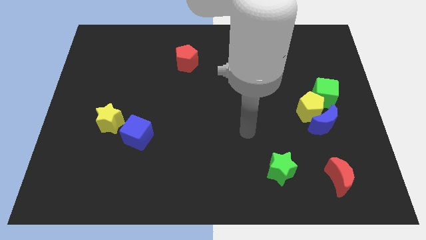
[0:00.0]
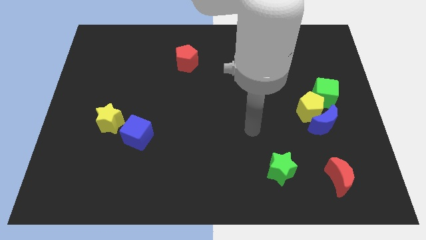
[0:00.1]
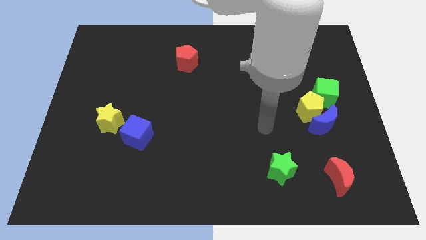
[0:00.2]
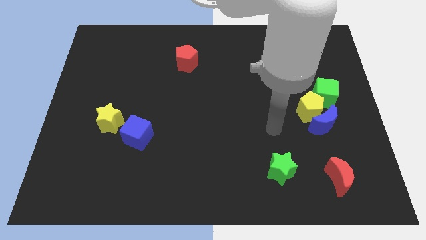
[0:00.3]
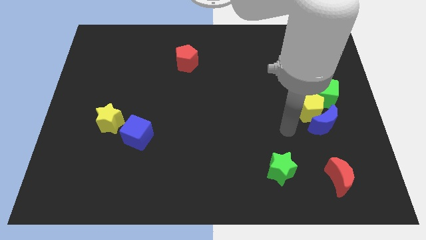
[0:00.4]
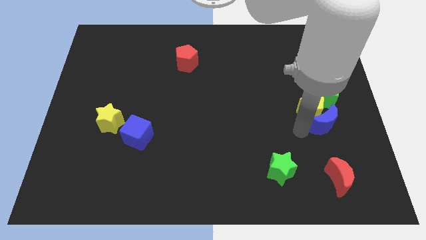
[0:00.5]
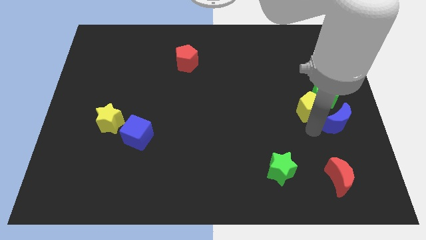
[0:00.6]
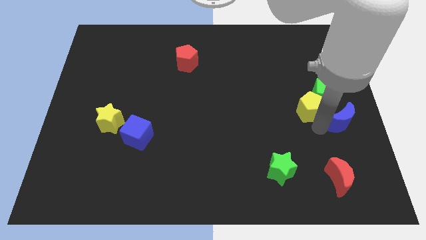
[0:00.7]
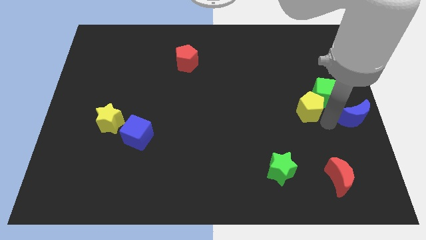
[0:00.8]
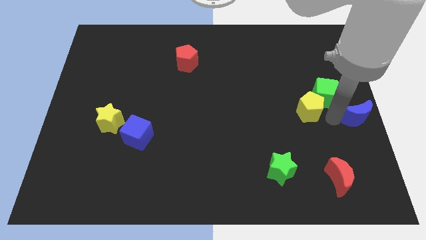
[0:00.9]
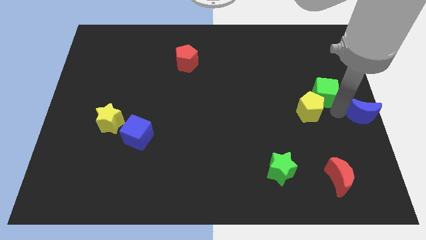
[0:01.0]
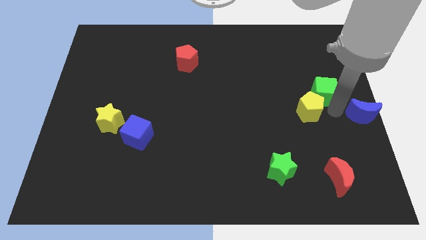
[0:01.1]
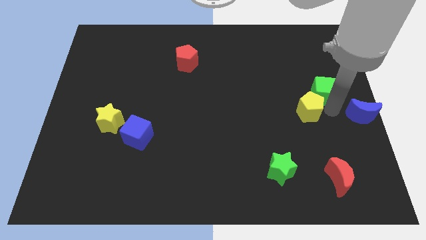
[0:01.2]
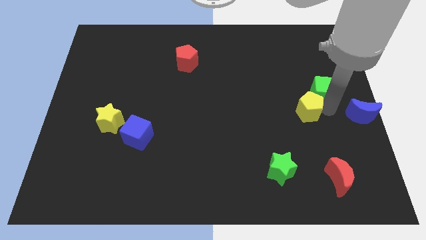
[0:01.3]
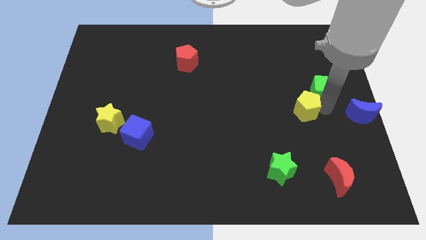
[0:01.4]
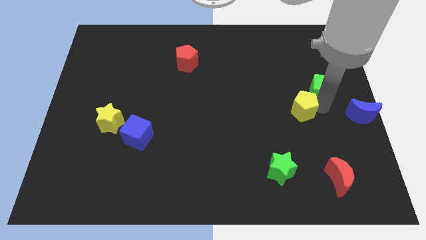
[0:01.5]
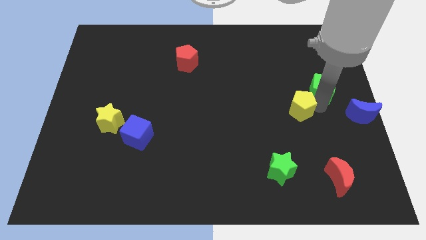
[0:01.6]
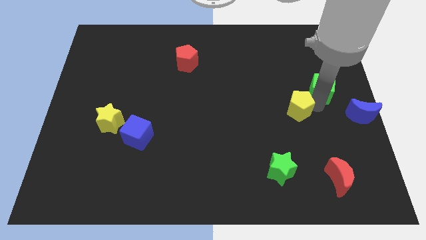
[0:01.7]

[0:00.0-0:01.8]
move the yellow pentagon away from the blue moon and green cube

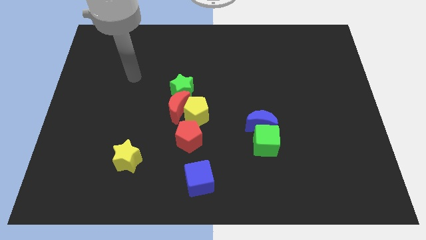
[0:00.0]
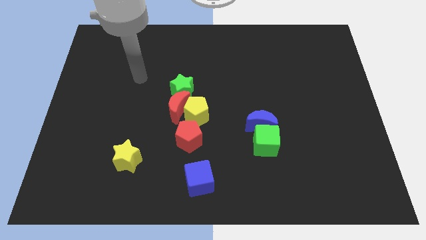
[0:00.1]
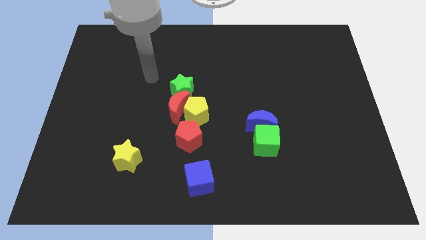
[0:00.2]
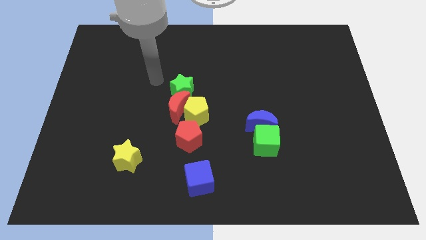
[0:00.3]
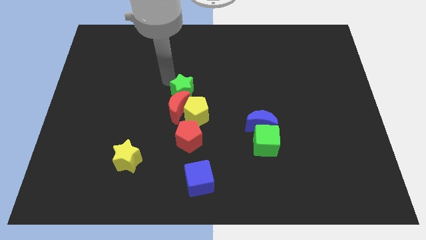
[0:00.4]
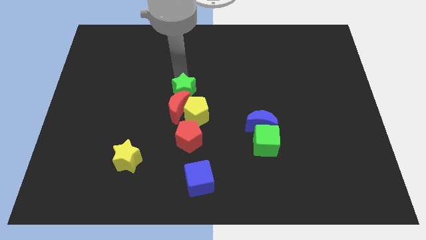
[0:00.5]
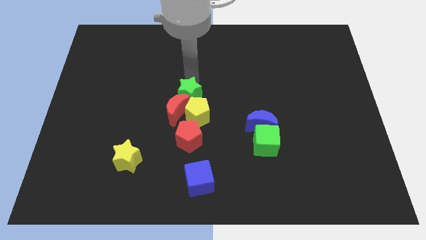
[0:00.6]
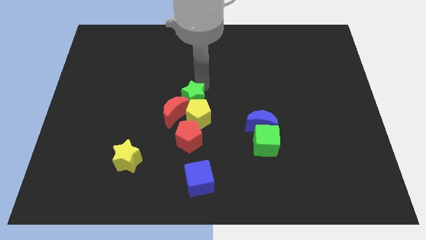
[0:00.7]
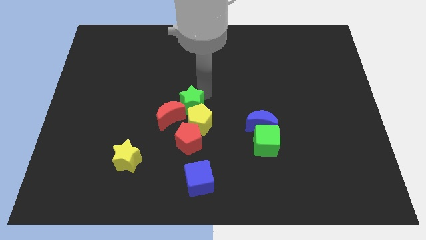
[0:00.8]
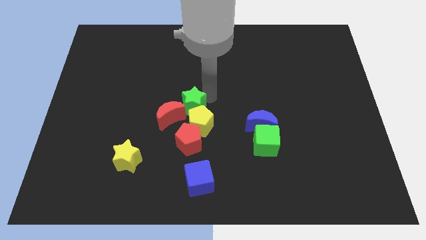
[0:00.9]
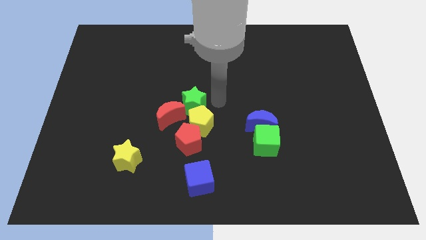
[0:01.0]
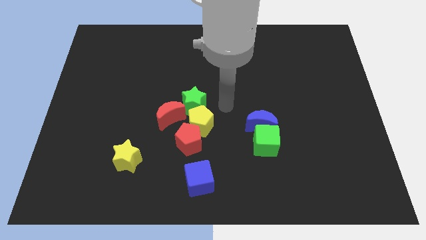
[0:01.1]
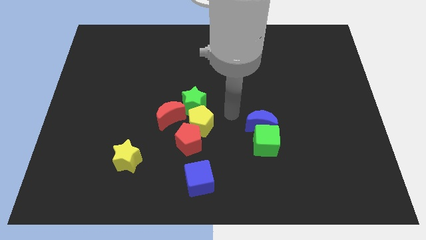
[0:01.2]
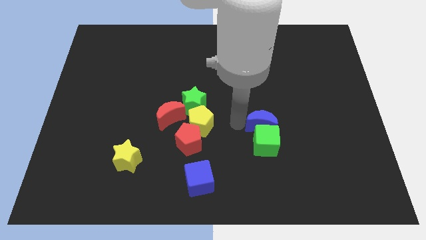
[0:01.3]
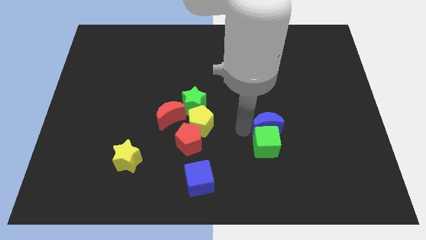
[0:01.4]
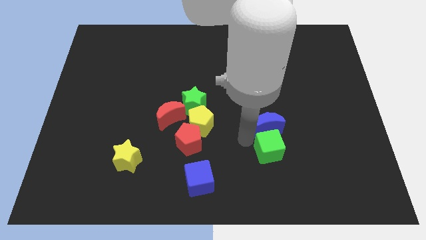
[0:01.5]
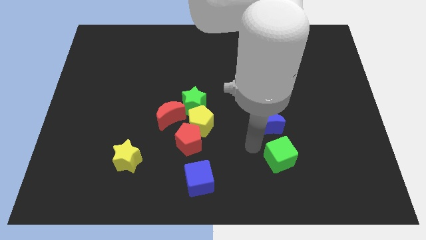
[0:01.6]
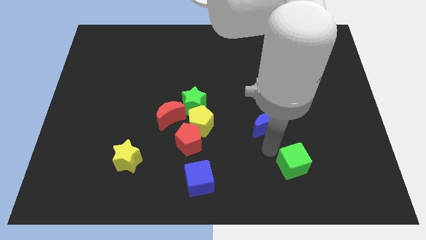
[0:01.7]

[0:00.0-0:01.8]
move the blue moon away from the green cube

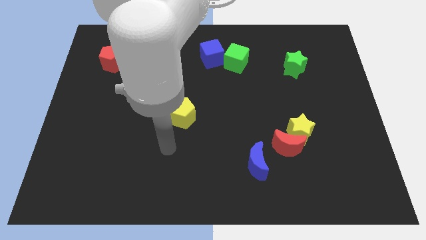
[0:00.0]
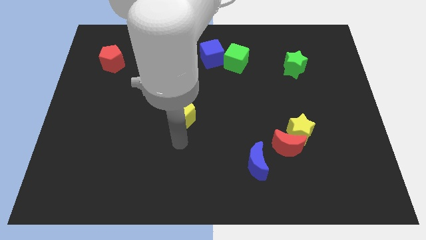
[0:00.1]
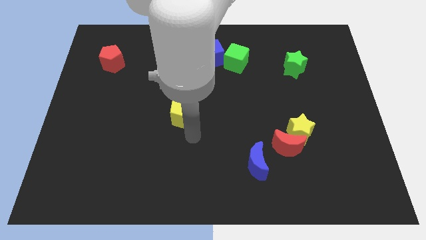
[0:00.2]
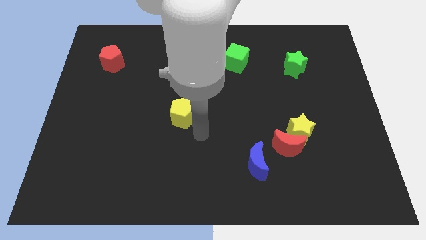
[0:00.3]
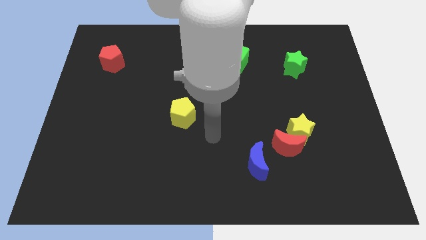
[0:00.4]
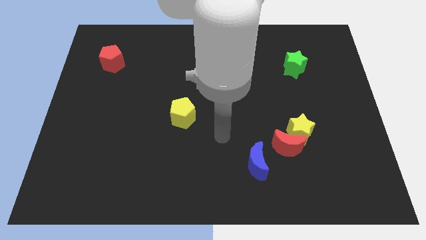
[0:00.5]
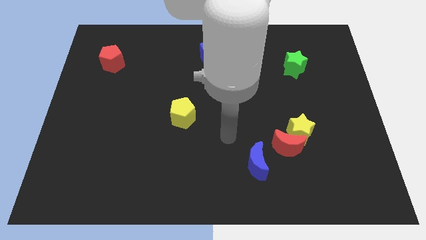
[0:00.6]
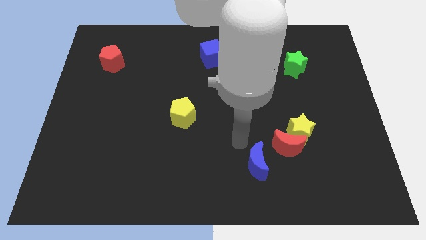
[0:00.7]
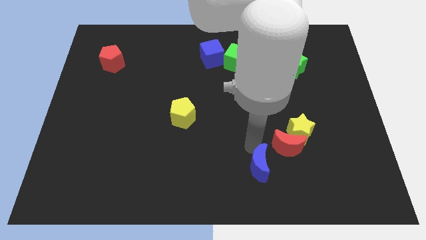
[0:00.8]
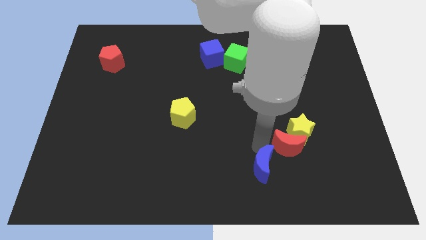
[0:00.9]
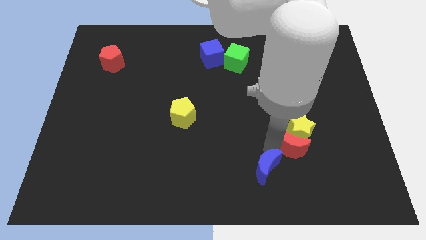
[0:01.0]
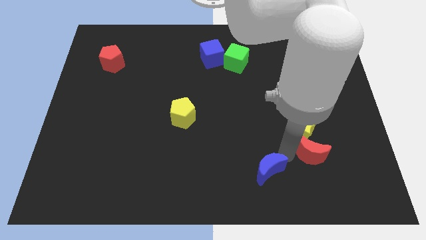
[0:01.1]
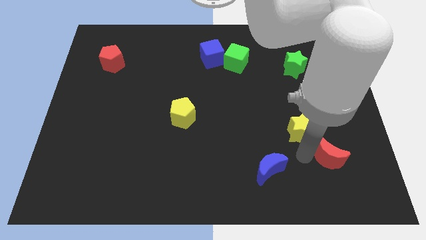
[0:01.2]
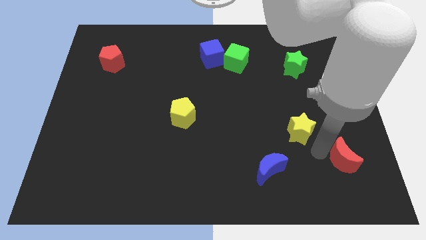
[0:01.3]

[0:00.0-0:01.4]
move the yellow star away from the red moon

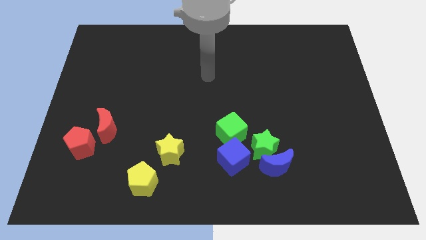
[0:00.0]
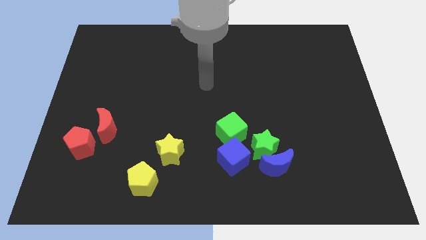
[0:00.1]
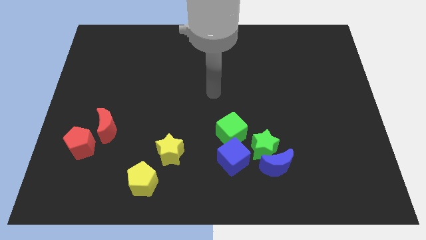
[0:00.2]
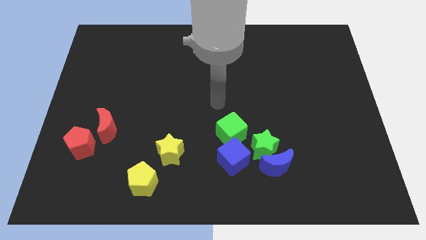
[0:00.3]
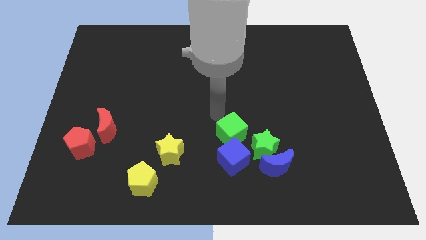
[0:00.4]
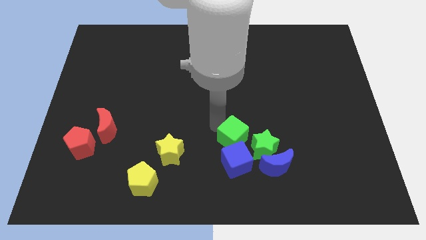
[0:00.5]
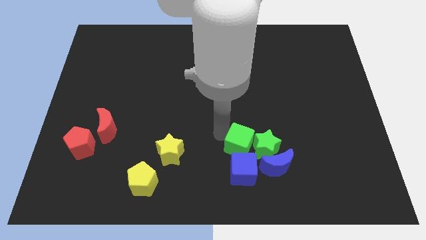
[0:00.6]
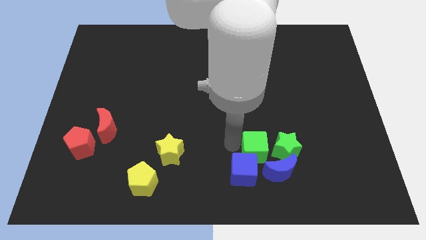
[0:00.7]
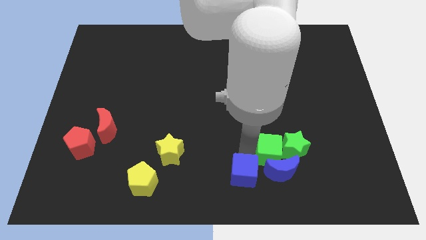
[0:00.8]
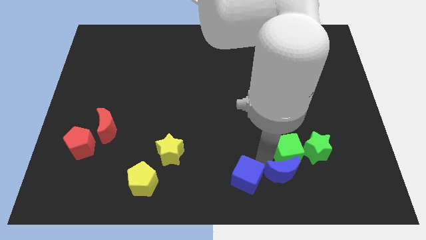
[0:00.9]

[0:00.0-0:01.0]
pull the green star apart from the blue moon, blue cube, and green cube

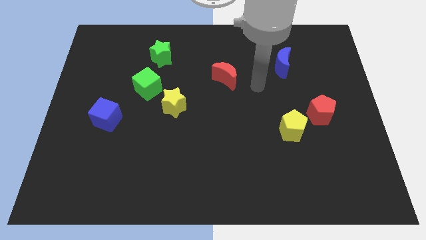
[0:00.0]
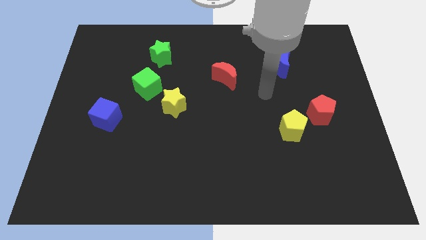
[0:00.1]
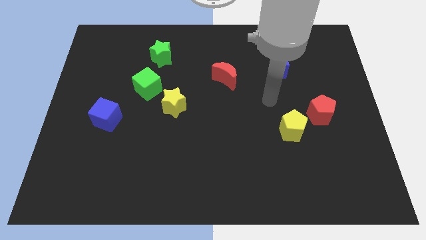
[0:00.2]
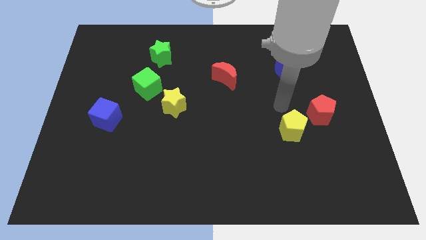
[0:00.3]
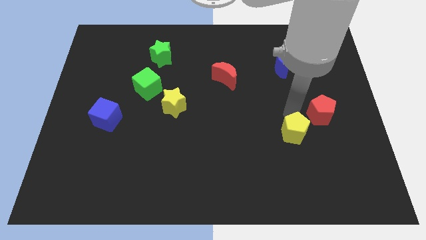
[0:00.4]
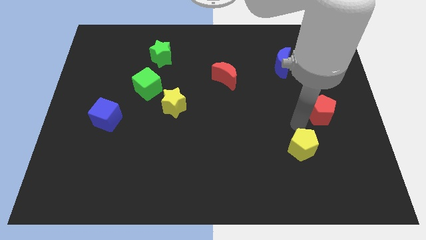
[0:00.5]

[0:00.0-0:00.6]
move the red pentagon away from the yellow pentagon

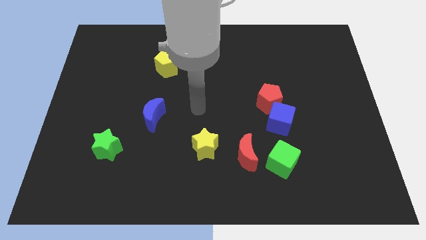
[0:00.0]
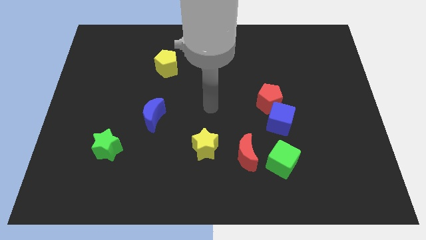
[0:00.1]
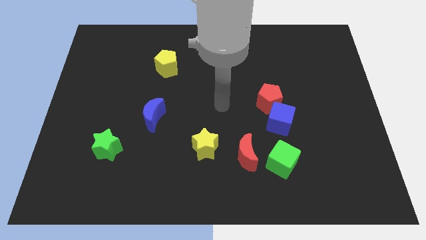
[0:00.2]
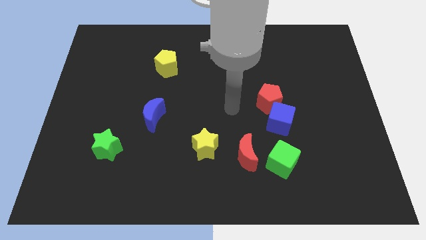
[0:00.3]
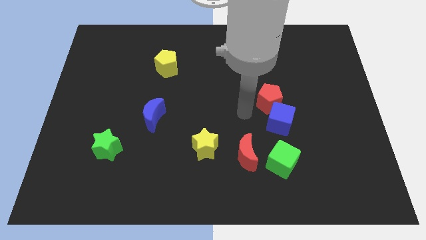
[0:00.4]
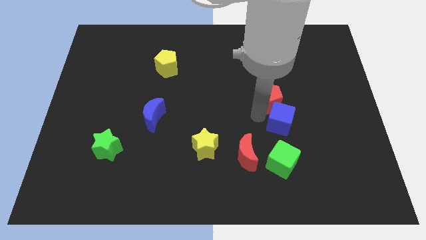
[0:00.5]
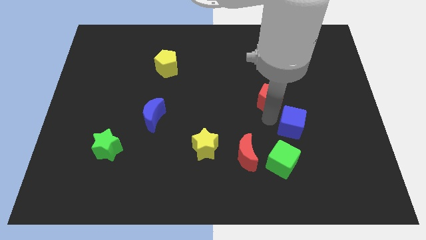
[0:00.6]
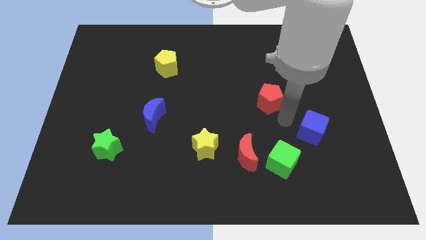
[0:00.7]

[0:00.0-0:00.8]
pull the red pentagon apart from the blue cube

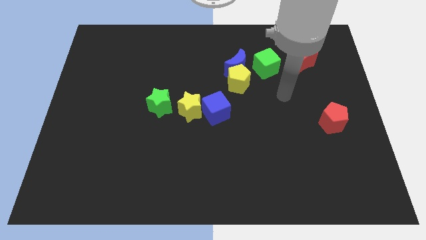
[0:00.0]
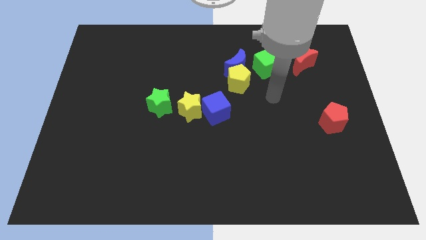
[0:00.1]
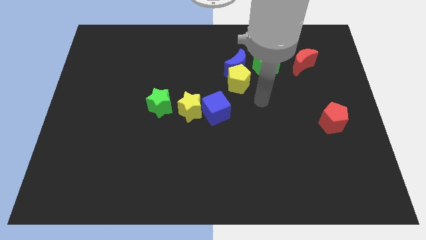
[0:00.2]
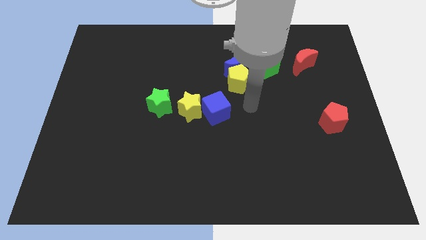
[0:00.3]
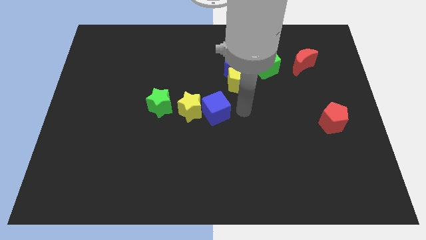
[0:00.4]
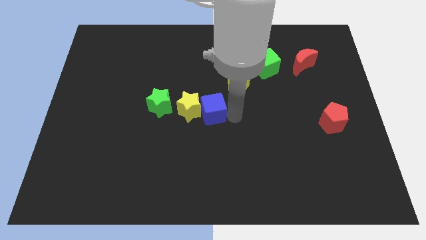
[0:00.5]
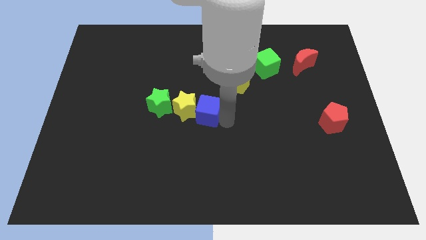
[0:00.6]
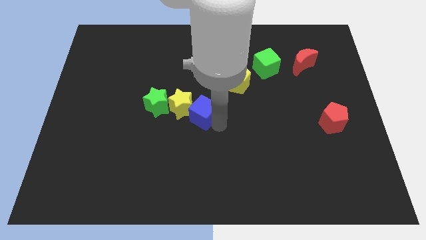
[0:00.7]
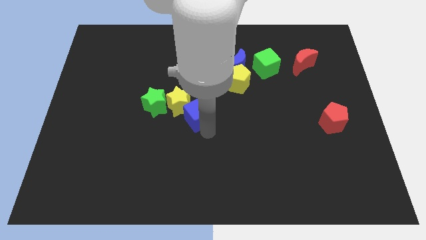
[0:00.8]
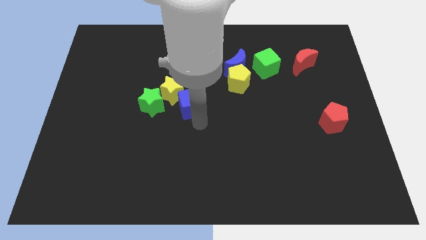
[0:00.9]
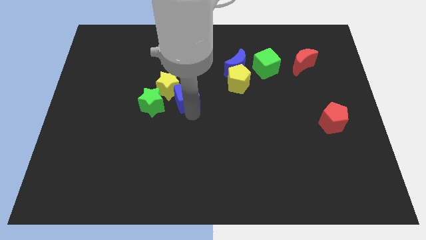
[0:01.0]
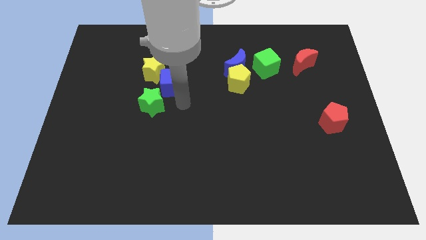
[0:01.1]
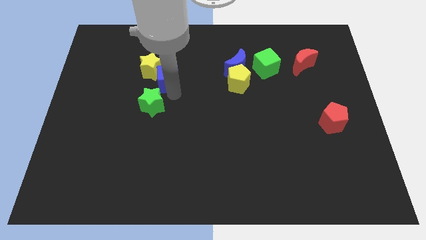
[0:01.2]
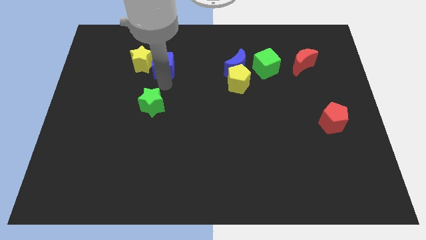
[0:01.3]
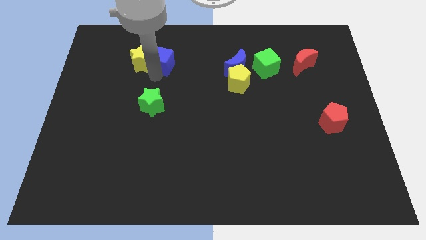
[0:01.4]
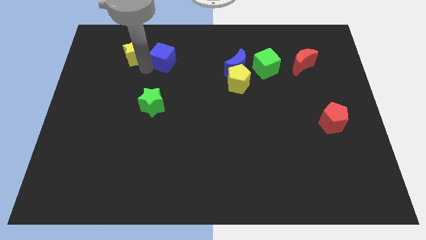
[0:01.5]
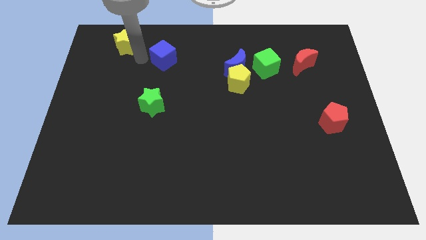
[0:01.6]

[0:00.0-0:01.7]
separate the blue cube from the yellow star

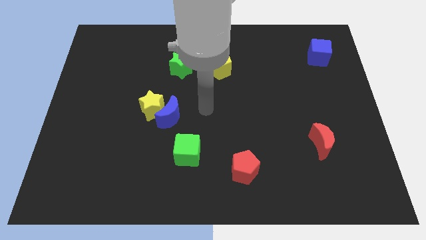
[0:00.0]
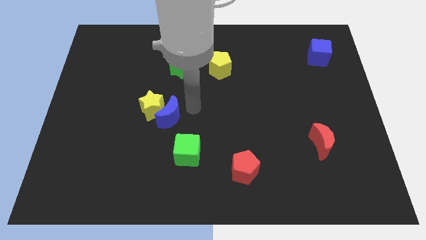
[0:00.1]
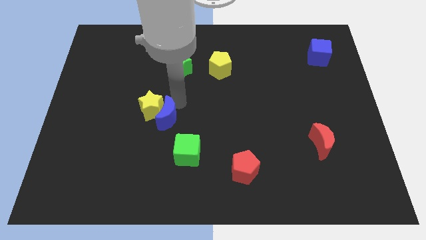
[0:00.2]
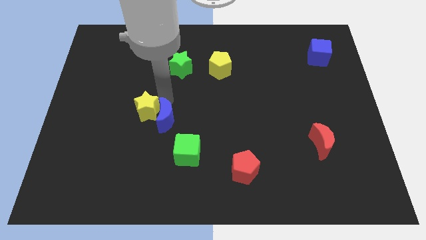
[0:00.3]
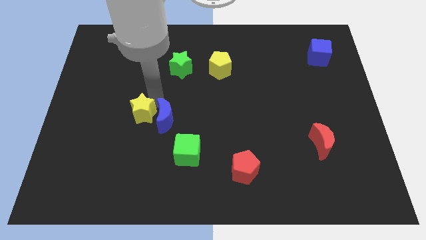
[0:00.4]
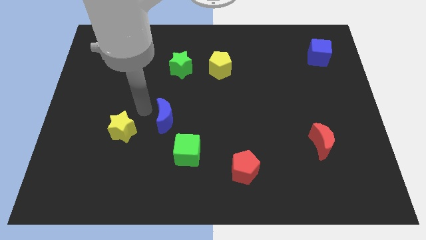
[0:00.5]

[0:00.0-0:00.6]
move the blue moon away from the yellow star
